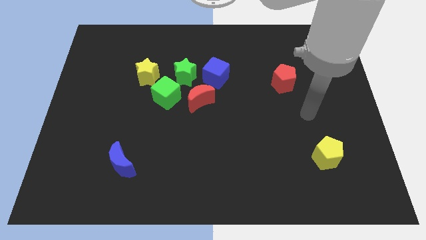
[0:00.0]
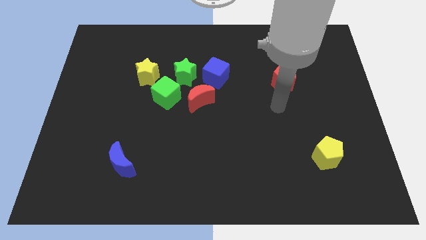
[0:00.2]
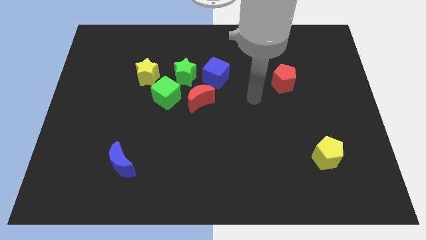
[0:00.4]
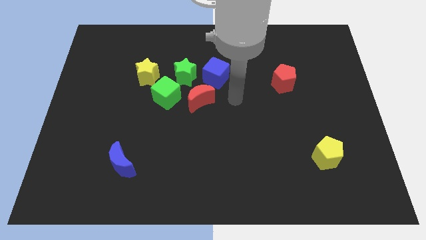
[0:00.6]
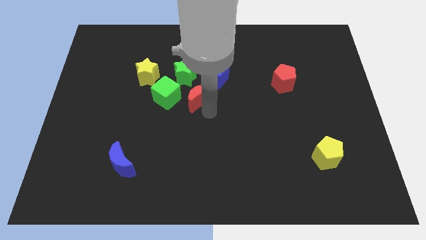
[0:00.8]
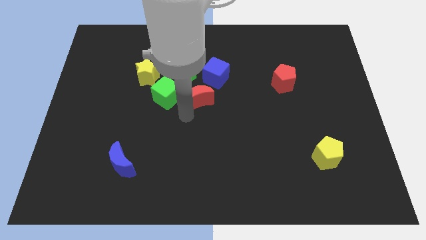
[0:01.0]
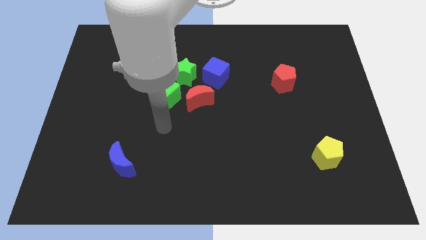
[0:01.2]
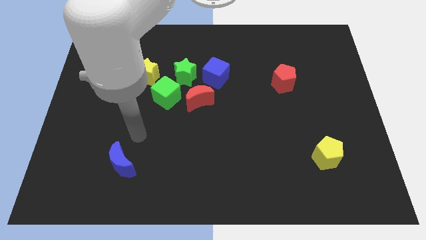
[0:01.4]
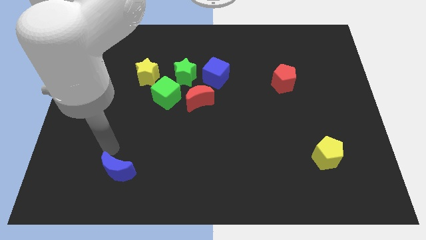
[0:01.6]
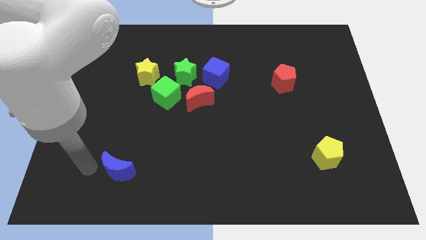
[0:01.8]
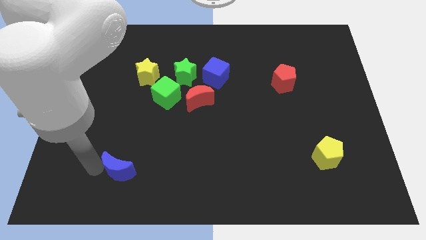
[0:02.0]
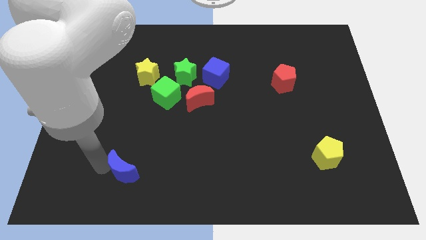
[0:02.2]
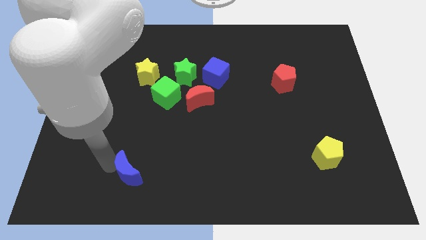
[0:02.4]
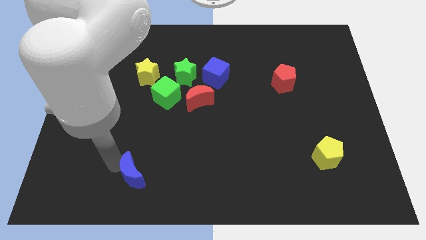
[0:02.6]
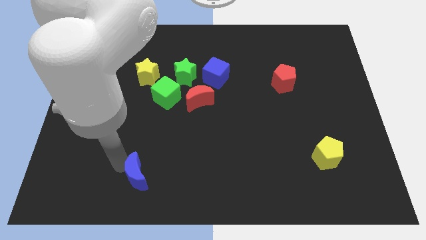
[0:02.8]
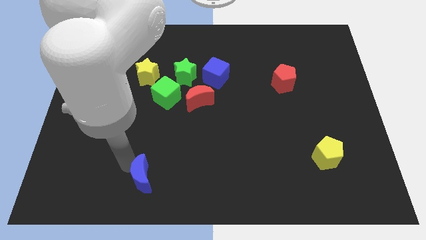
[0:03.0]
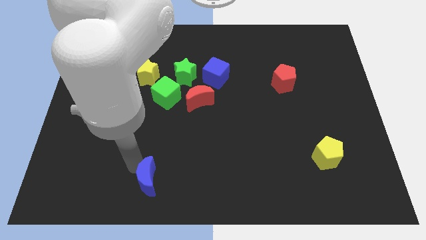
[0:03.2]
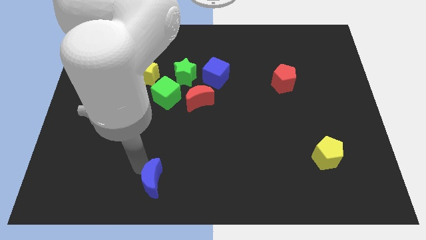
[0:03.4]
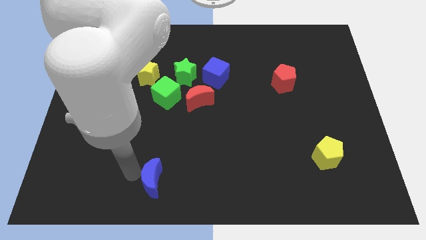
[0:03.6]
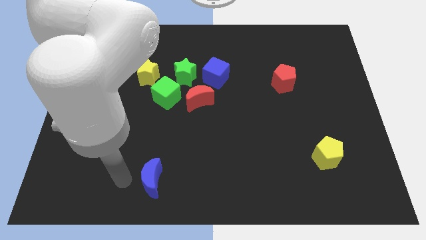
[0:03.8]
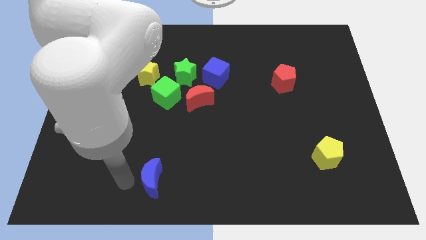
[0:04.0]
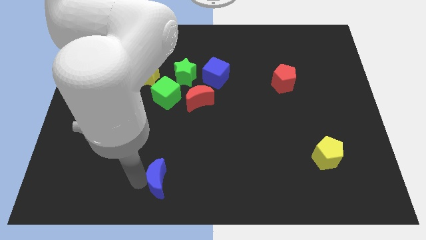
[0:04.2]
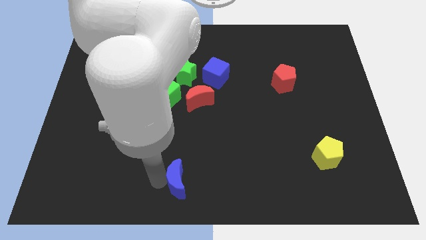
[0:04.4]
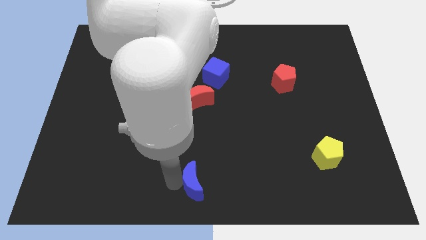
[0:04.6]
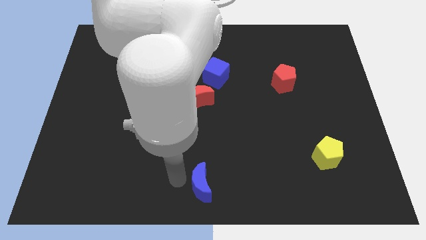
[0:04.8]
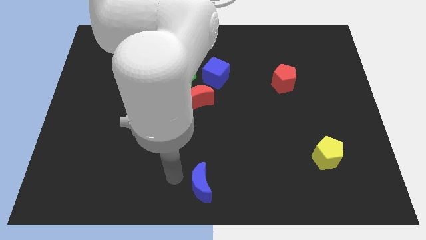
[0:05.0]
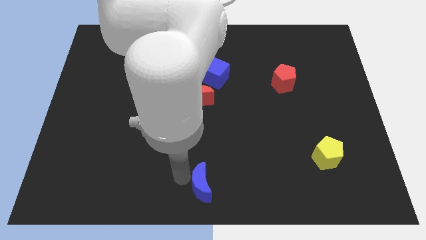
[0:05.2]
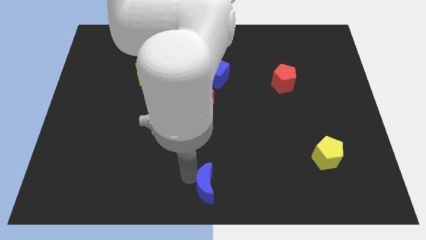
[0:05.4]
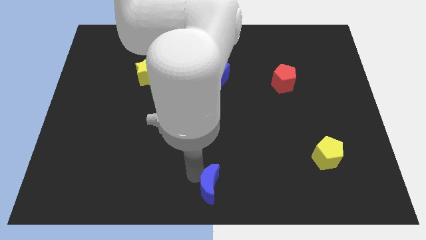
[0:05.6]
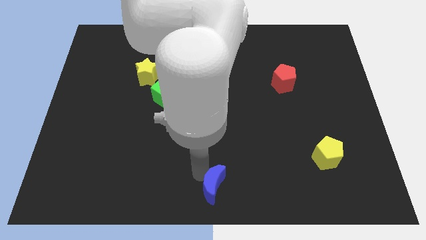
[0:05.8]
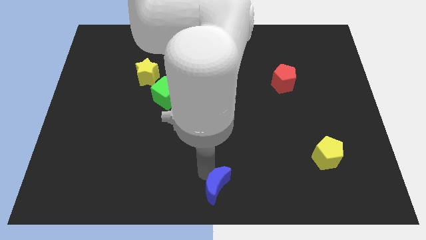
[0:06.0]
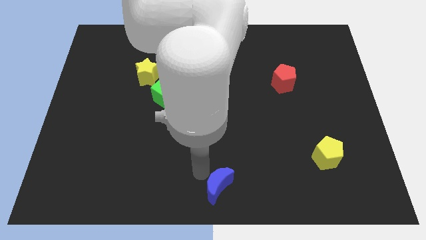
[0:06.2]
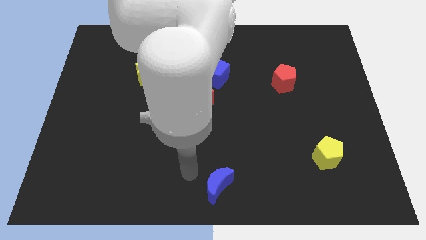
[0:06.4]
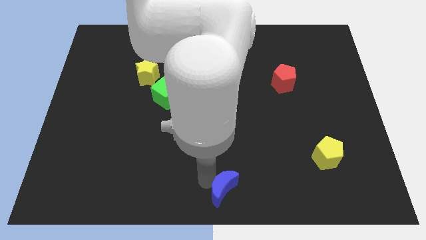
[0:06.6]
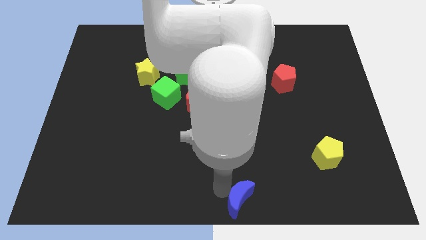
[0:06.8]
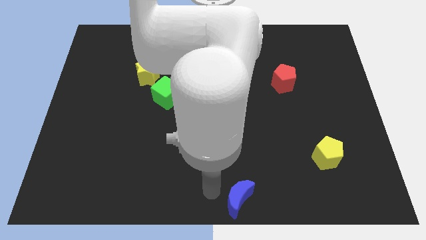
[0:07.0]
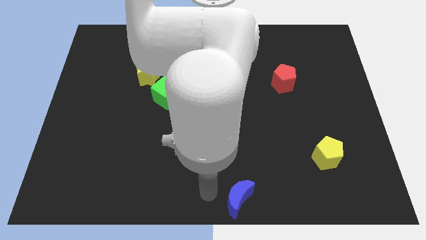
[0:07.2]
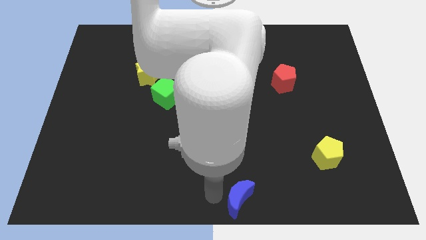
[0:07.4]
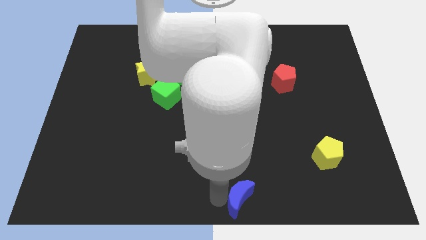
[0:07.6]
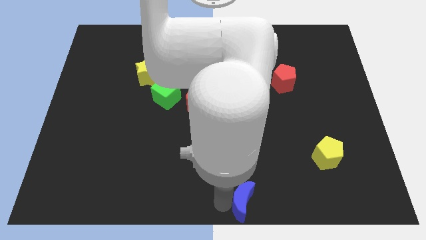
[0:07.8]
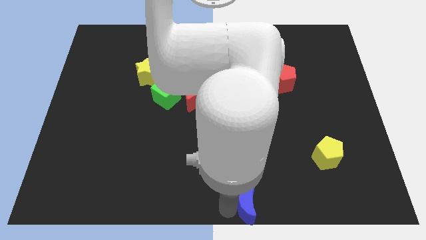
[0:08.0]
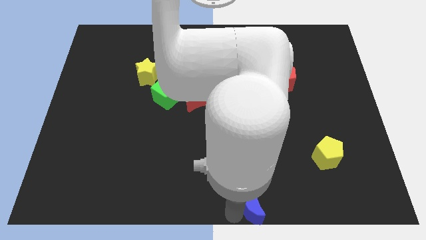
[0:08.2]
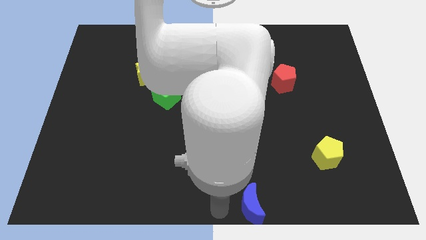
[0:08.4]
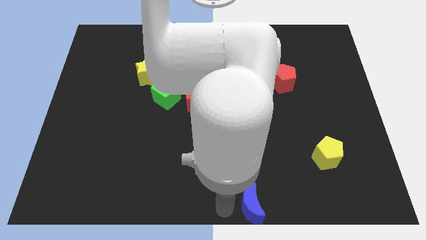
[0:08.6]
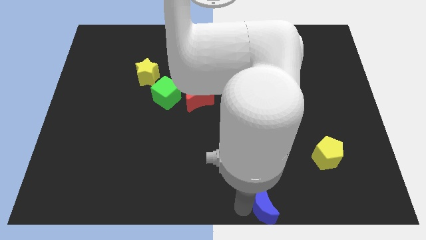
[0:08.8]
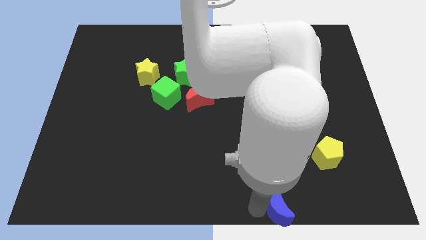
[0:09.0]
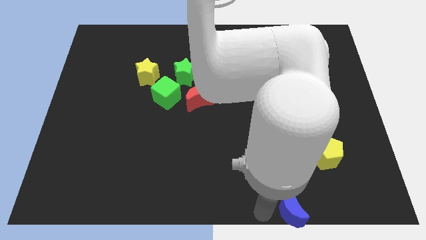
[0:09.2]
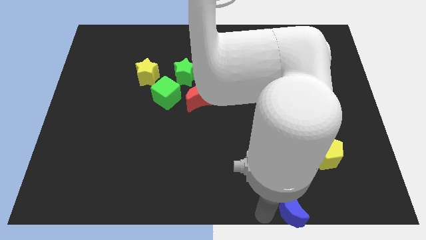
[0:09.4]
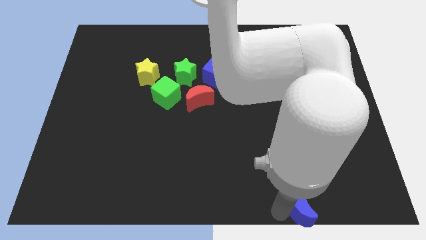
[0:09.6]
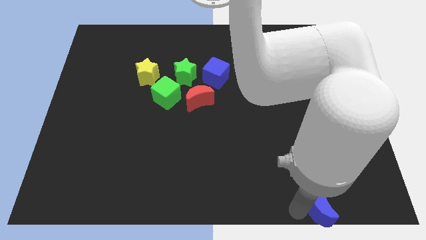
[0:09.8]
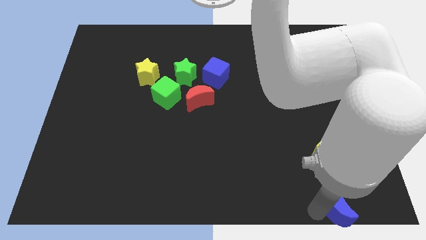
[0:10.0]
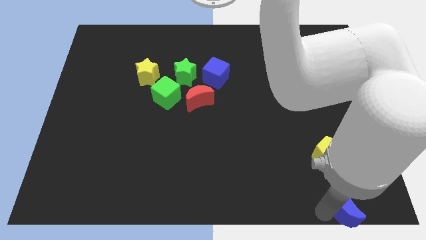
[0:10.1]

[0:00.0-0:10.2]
move the blue moon to the lower right corner

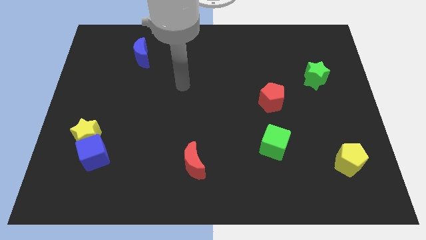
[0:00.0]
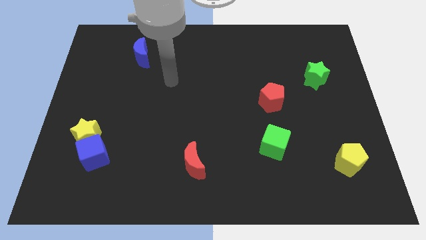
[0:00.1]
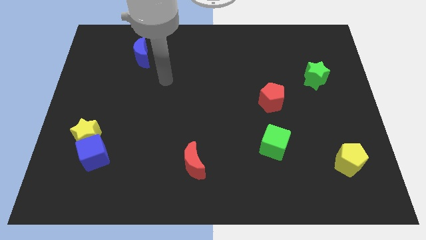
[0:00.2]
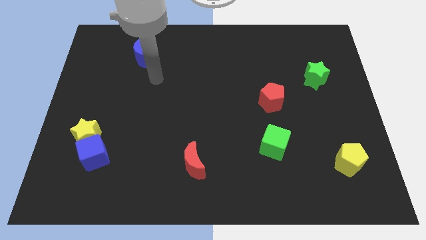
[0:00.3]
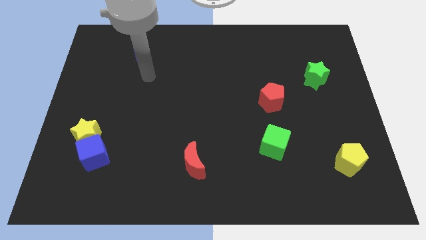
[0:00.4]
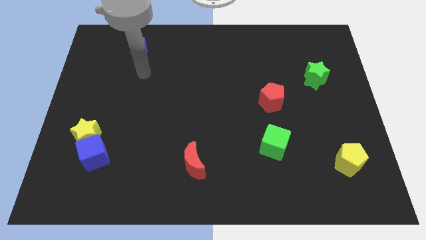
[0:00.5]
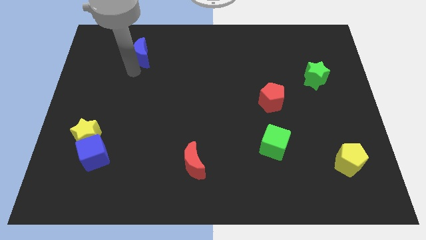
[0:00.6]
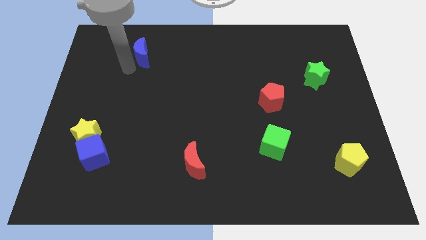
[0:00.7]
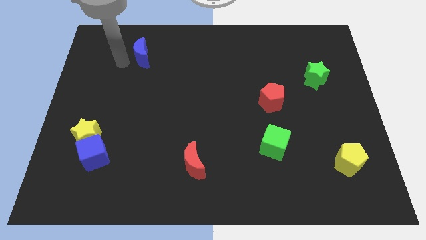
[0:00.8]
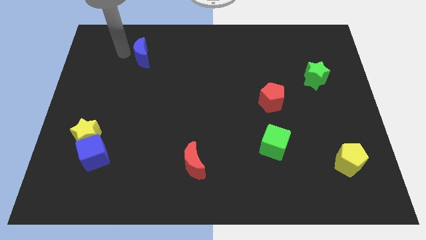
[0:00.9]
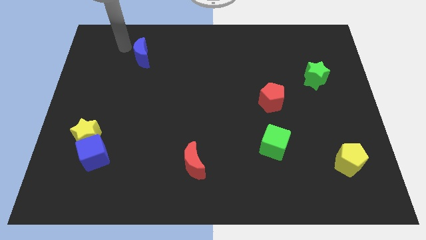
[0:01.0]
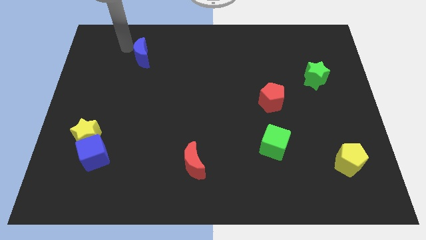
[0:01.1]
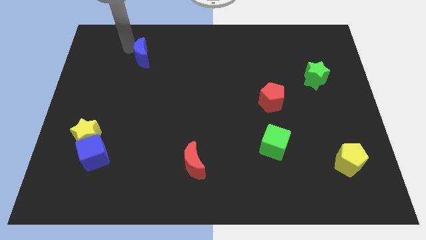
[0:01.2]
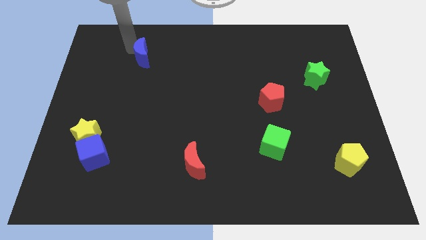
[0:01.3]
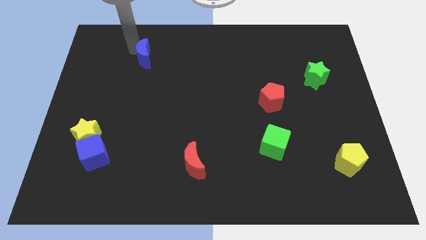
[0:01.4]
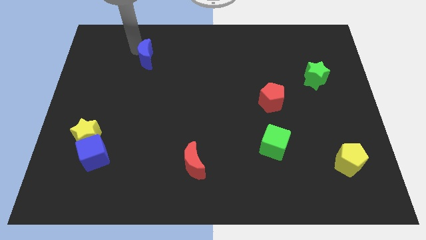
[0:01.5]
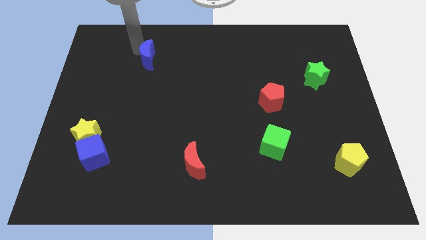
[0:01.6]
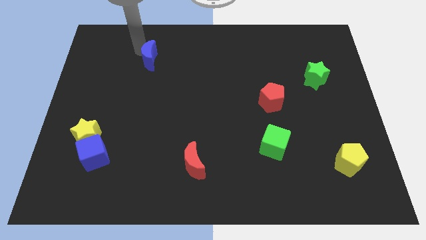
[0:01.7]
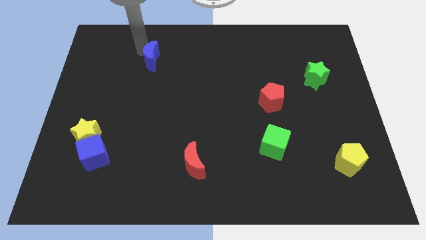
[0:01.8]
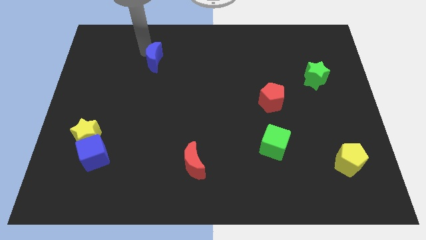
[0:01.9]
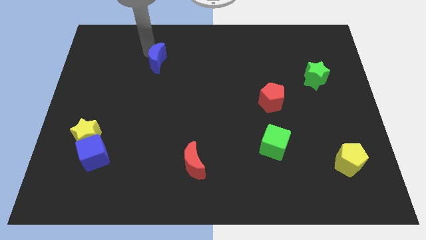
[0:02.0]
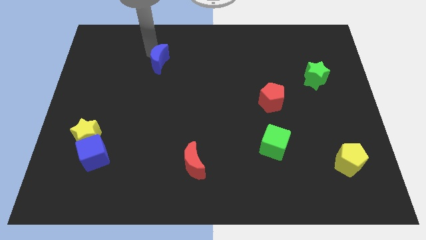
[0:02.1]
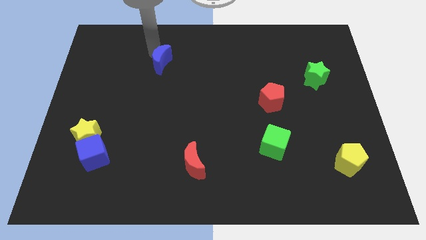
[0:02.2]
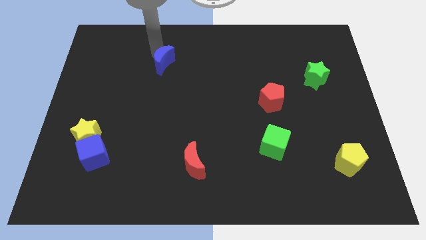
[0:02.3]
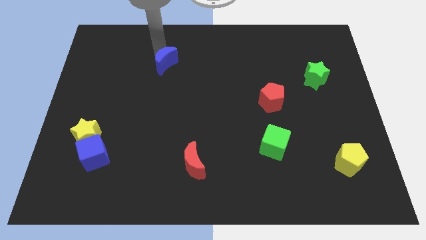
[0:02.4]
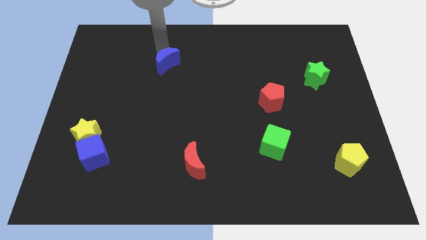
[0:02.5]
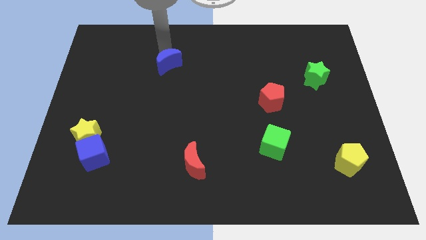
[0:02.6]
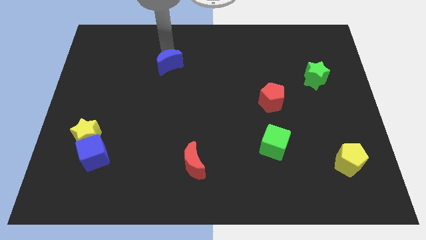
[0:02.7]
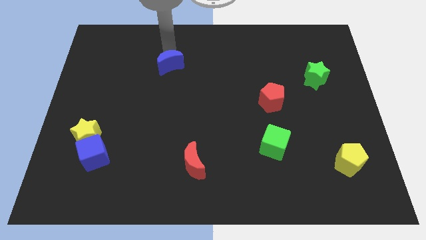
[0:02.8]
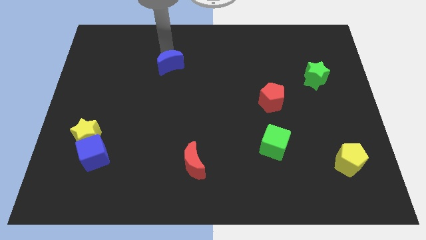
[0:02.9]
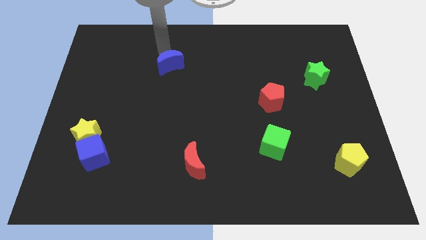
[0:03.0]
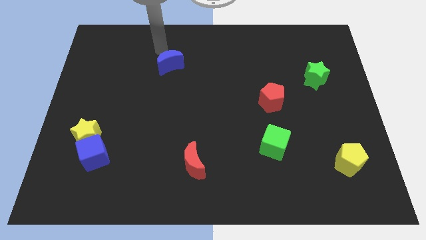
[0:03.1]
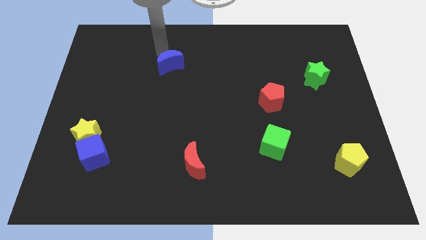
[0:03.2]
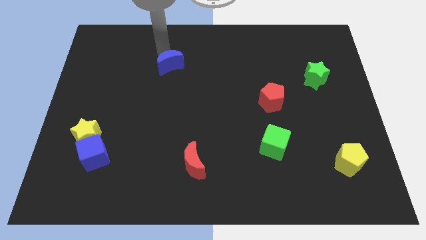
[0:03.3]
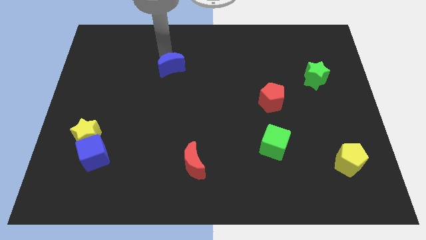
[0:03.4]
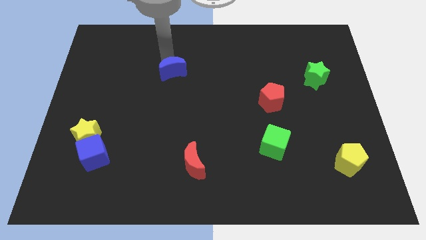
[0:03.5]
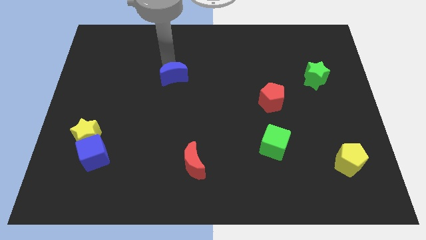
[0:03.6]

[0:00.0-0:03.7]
put the blue moon to the middle
